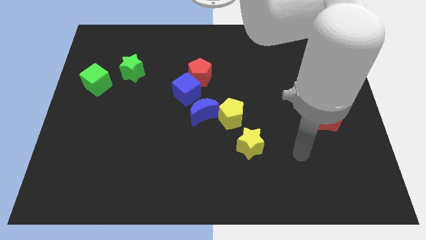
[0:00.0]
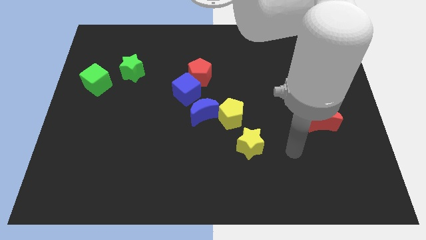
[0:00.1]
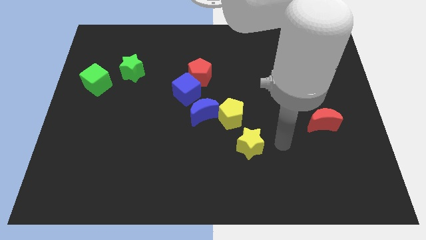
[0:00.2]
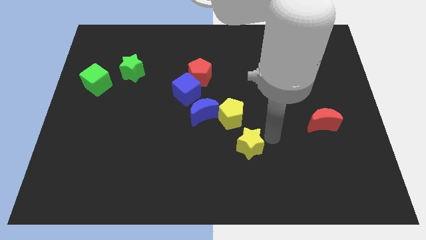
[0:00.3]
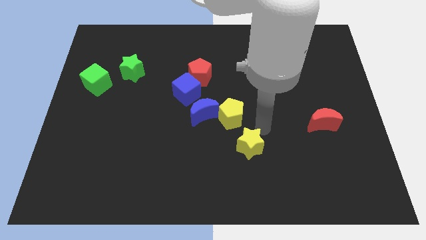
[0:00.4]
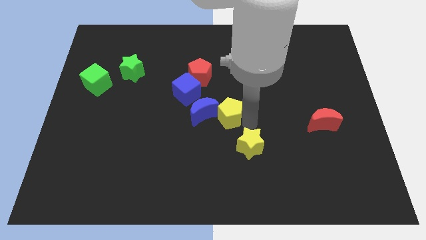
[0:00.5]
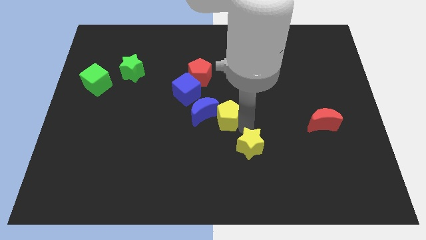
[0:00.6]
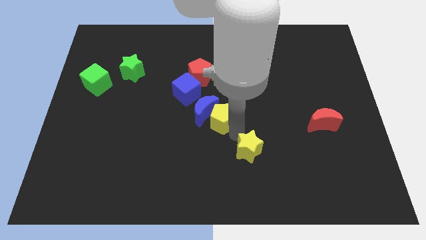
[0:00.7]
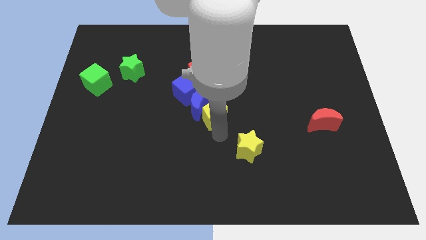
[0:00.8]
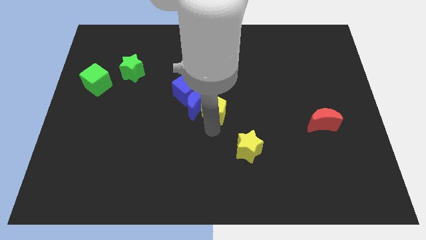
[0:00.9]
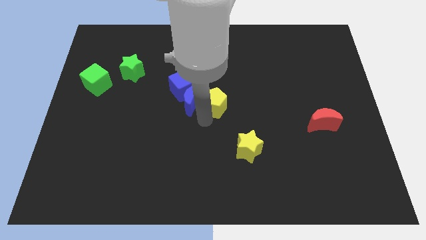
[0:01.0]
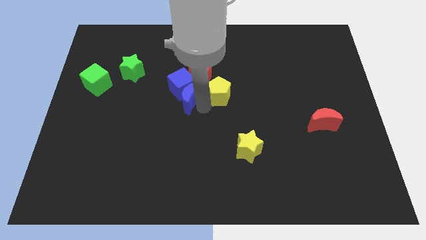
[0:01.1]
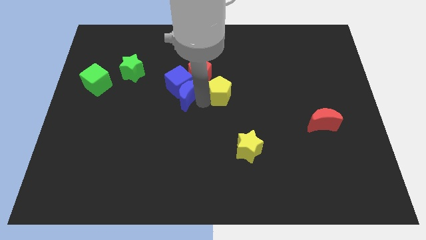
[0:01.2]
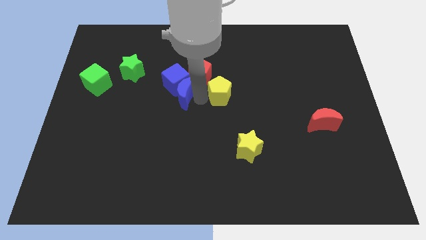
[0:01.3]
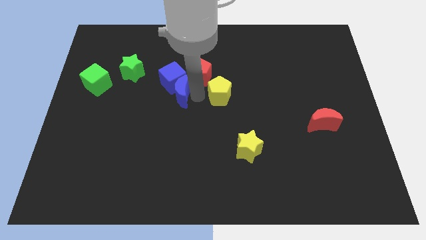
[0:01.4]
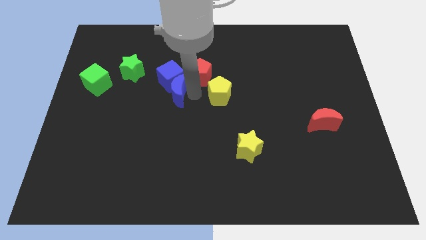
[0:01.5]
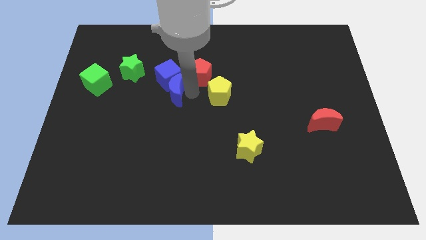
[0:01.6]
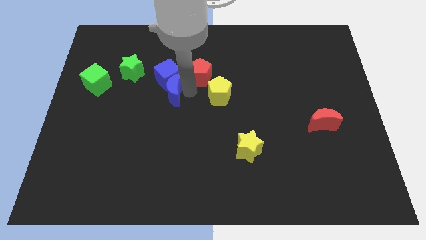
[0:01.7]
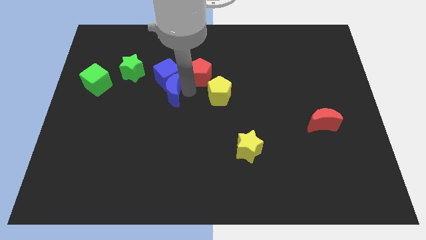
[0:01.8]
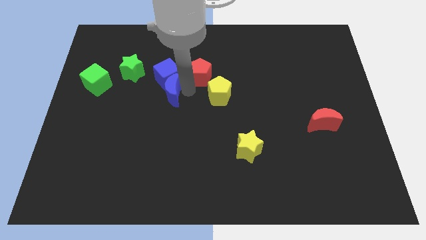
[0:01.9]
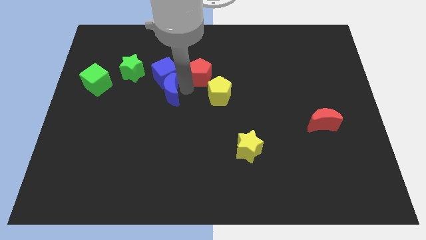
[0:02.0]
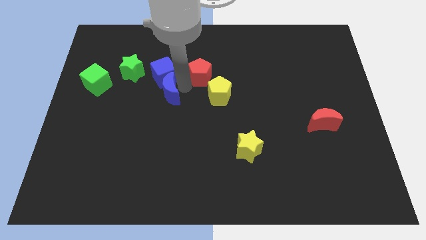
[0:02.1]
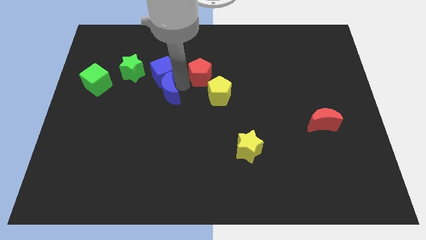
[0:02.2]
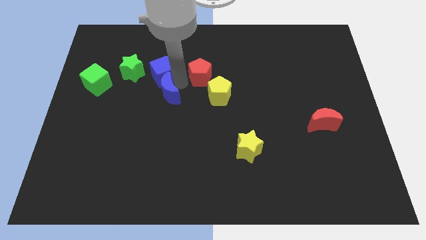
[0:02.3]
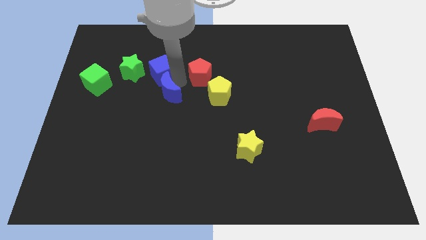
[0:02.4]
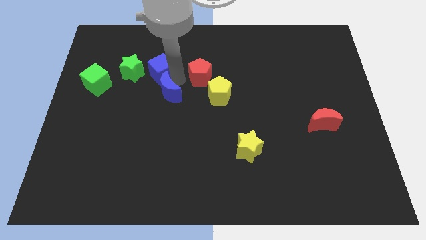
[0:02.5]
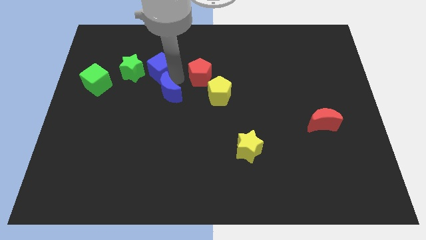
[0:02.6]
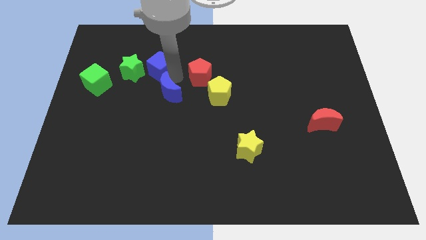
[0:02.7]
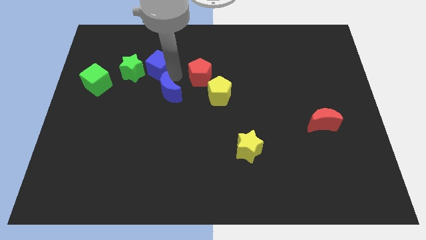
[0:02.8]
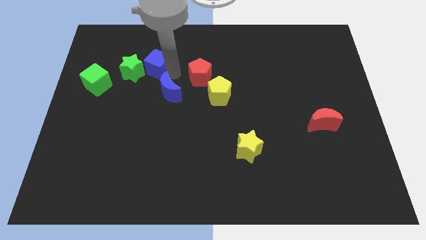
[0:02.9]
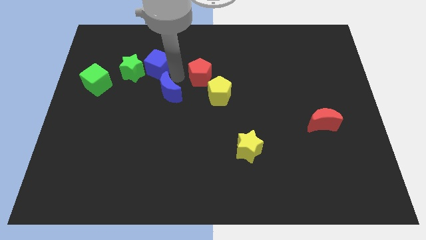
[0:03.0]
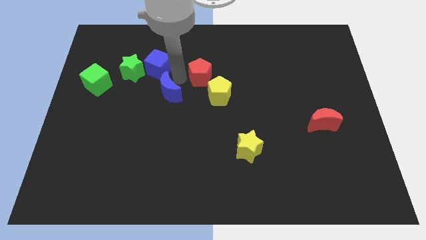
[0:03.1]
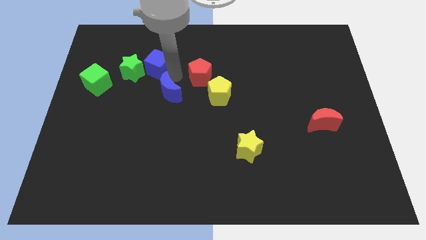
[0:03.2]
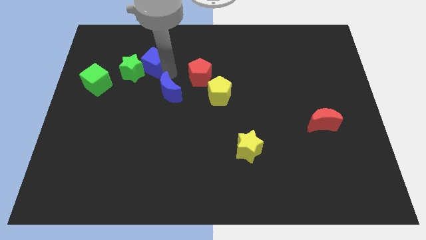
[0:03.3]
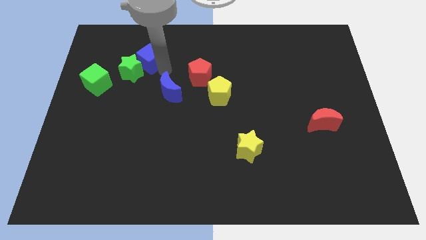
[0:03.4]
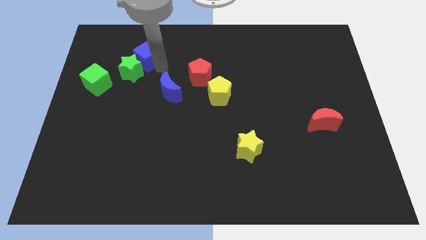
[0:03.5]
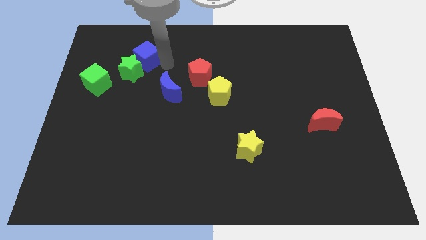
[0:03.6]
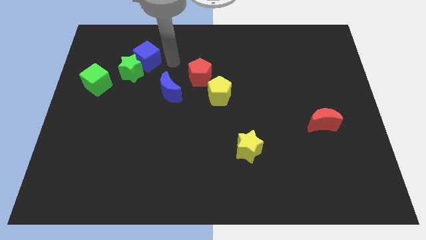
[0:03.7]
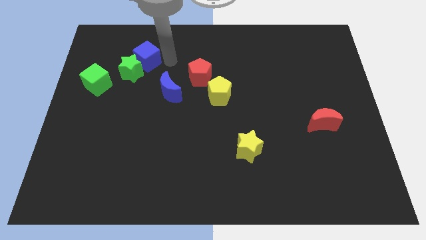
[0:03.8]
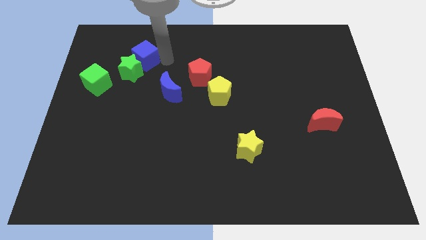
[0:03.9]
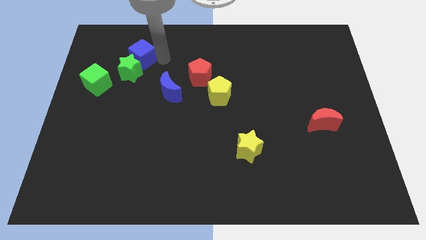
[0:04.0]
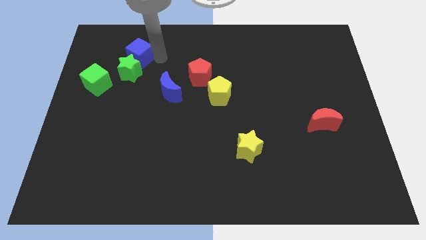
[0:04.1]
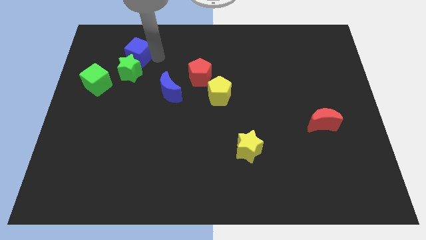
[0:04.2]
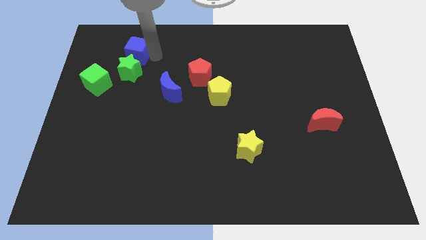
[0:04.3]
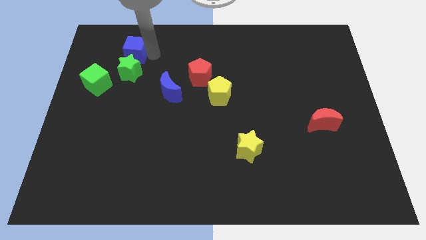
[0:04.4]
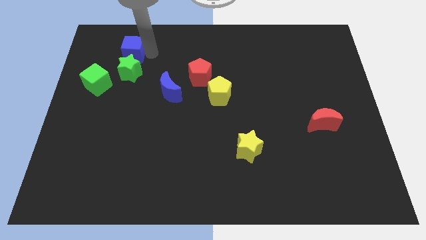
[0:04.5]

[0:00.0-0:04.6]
slide the blue cube diagonally up and to the left of the green star

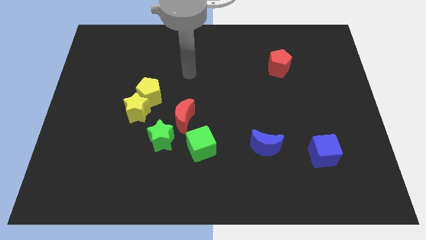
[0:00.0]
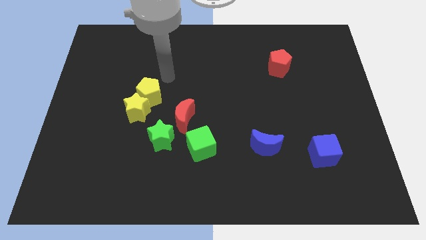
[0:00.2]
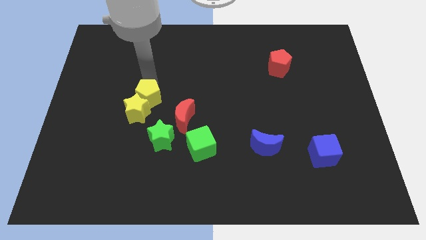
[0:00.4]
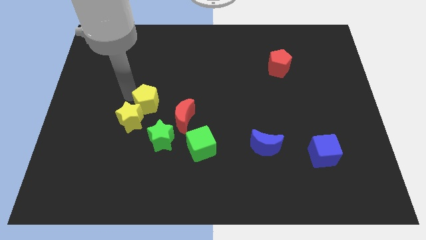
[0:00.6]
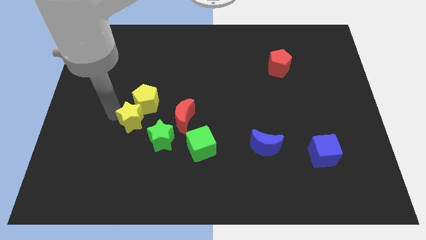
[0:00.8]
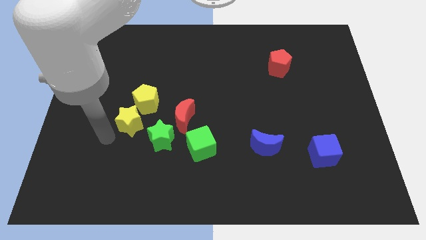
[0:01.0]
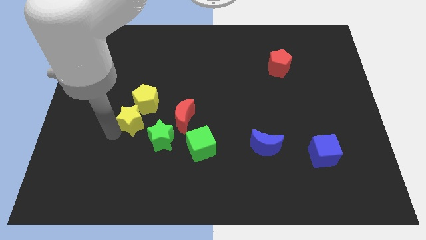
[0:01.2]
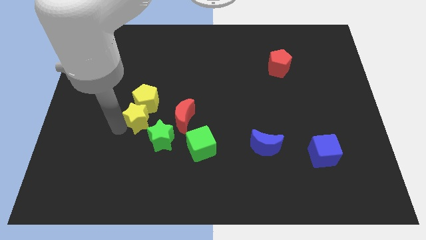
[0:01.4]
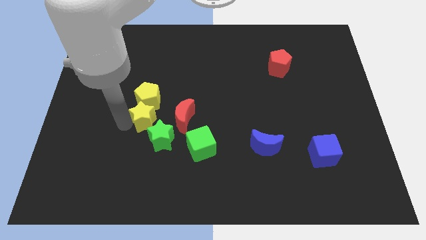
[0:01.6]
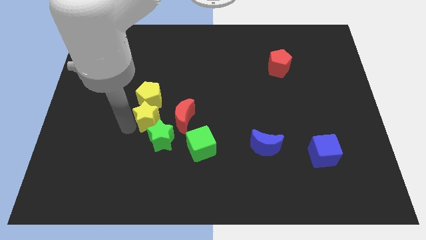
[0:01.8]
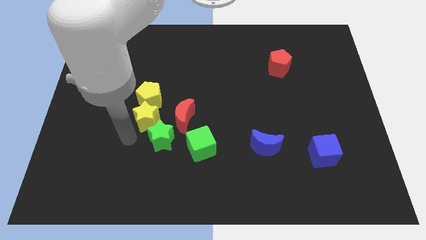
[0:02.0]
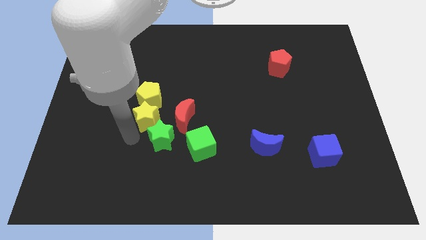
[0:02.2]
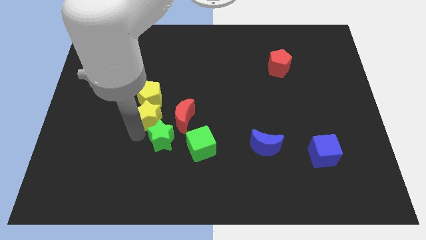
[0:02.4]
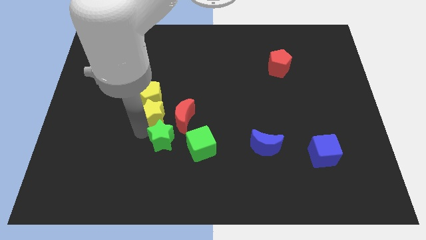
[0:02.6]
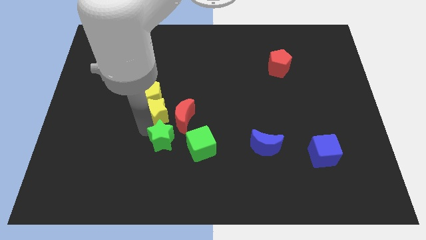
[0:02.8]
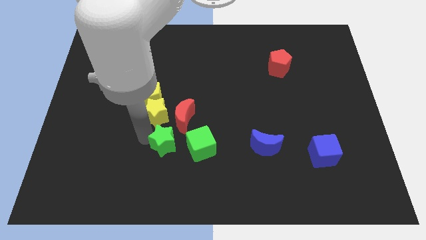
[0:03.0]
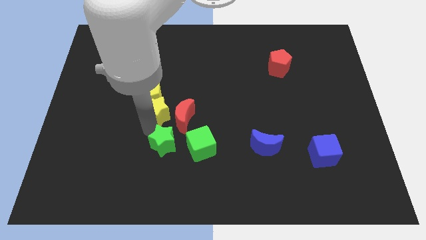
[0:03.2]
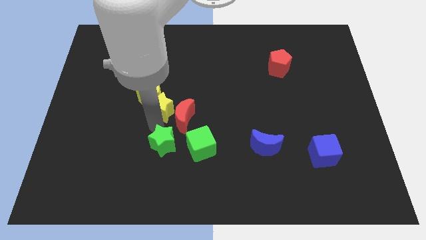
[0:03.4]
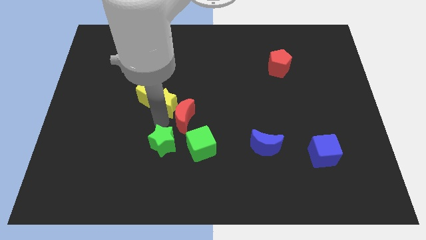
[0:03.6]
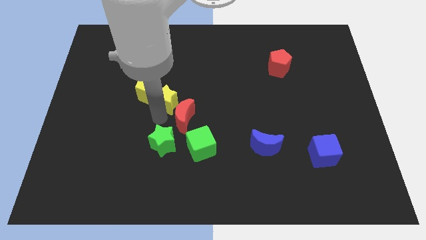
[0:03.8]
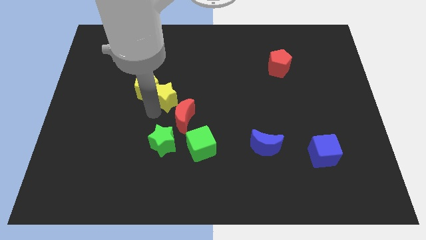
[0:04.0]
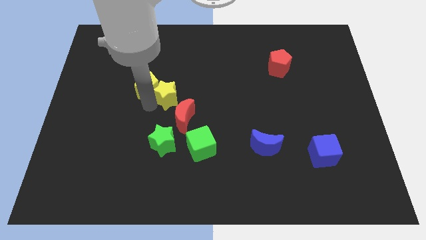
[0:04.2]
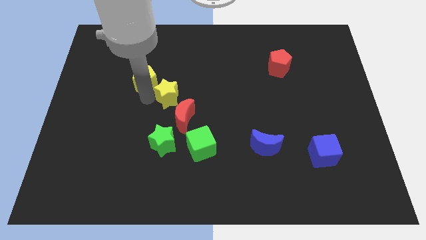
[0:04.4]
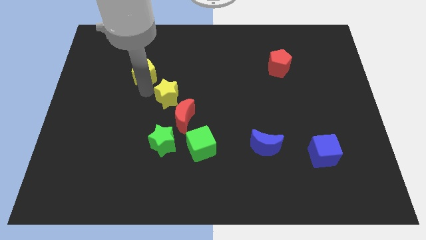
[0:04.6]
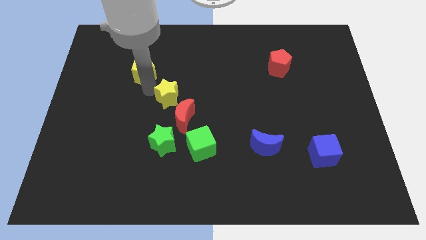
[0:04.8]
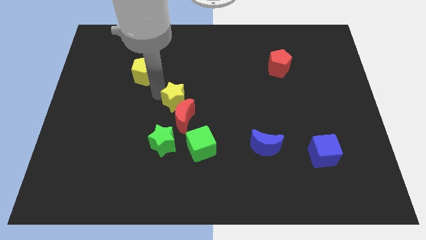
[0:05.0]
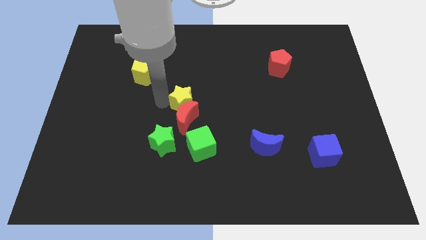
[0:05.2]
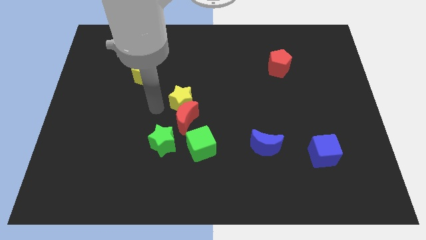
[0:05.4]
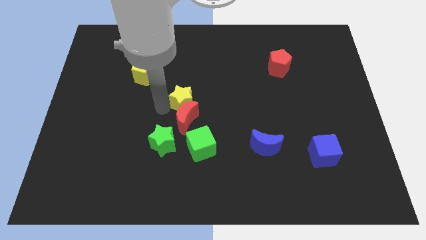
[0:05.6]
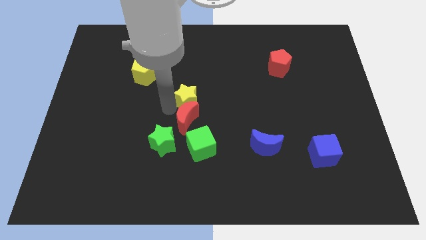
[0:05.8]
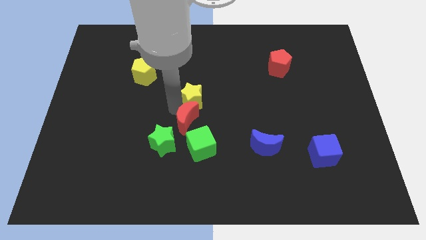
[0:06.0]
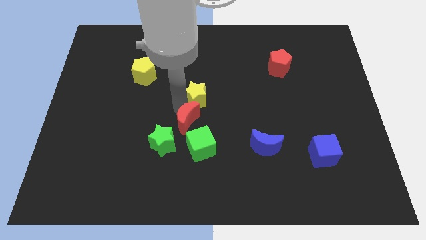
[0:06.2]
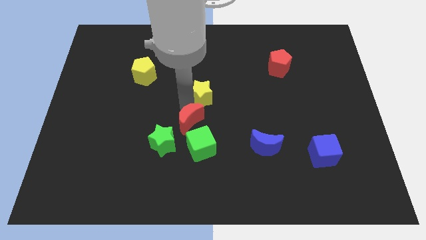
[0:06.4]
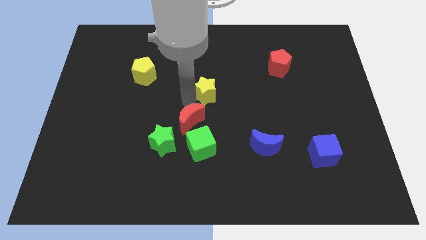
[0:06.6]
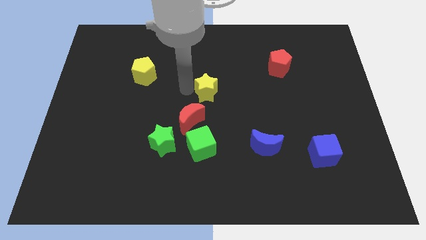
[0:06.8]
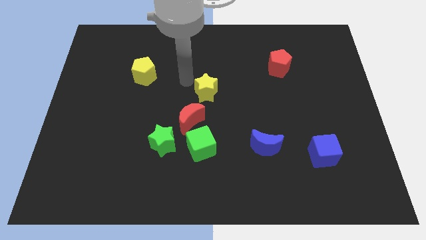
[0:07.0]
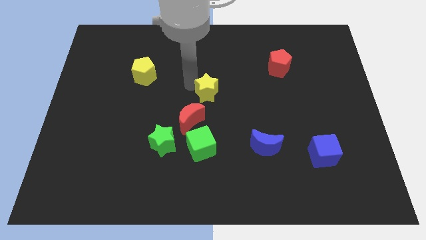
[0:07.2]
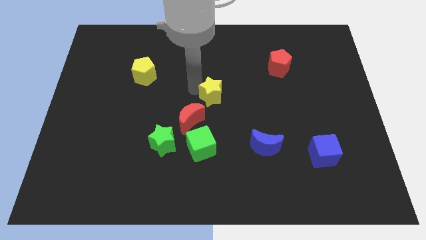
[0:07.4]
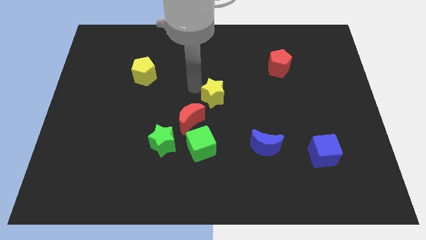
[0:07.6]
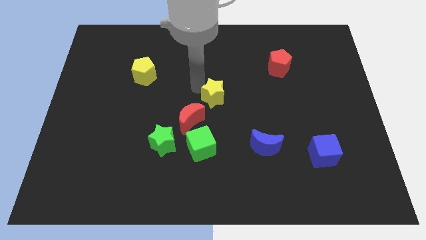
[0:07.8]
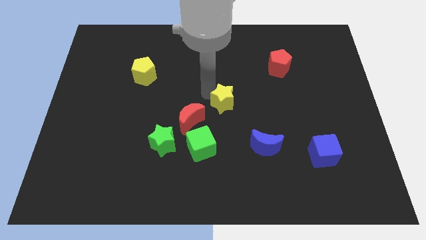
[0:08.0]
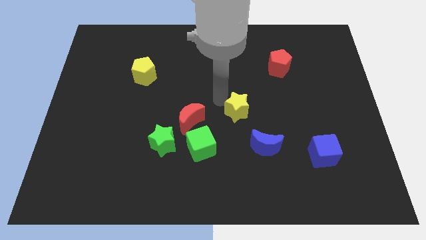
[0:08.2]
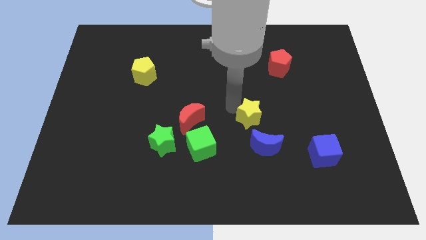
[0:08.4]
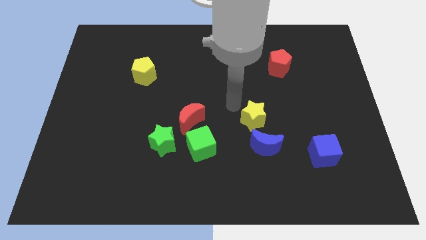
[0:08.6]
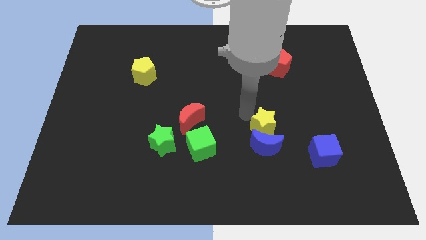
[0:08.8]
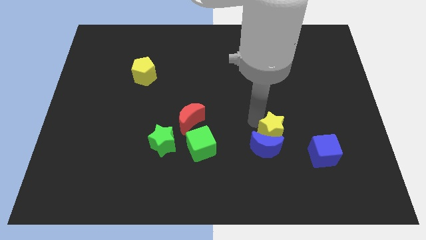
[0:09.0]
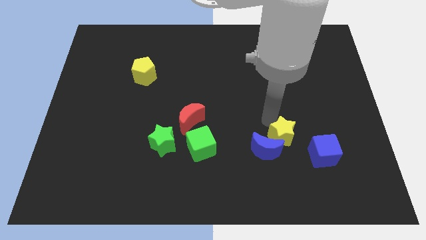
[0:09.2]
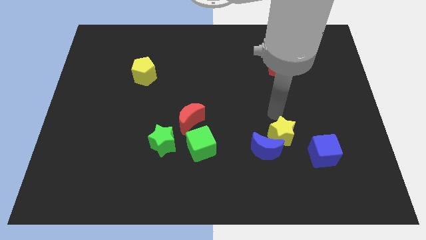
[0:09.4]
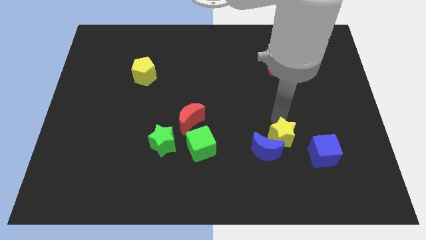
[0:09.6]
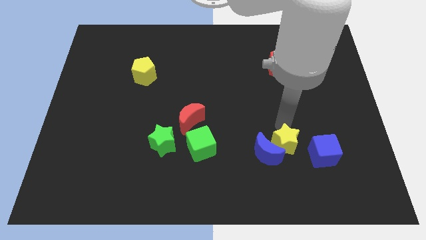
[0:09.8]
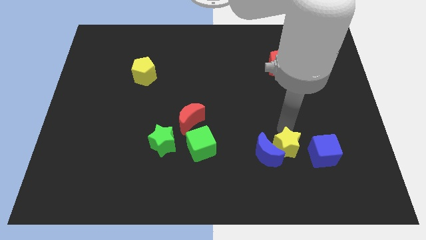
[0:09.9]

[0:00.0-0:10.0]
move the yellow star diagonally down and to the right of the blue moon
